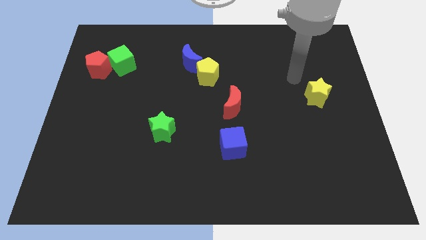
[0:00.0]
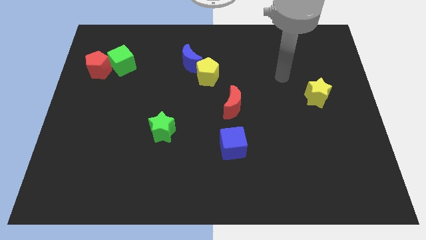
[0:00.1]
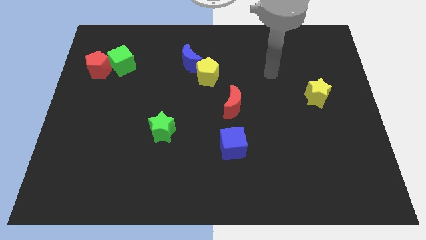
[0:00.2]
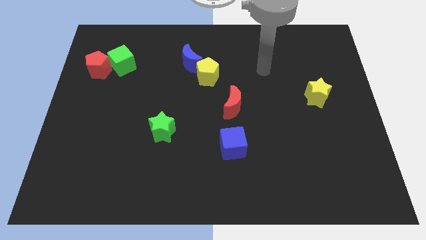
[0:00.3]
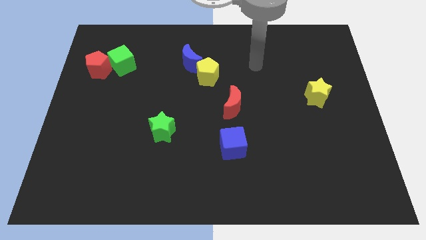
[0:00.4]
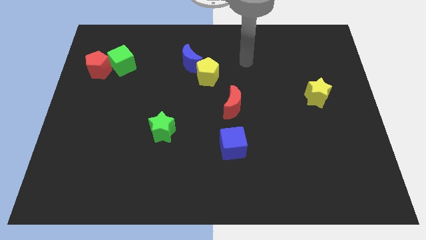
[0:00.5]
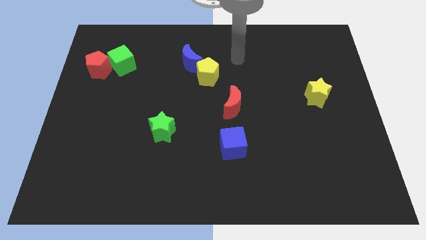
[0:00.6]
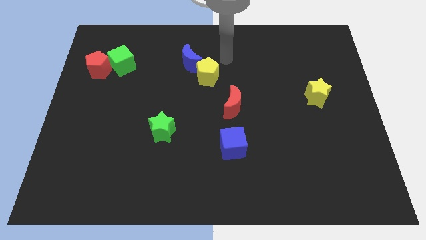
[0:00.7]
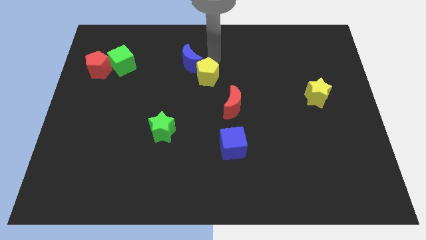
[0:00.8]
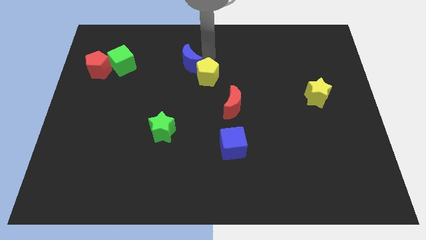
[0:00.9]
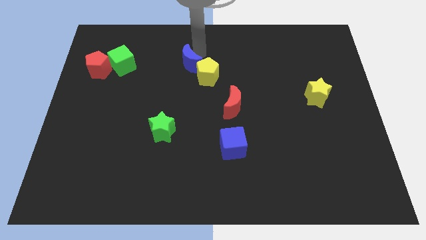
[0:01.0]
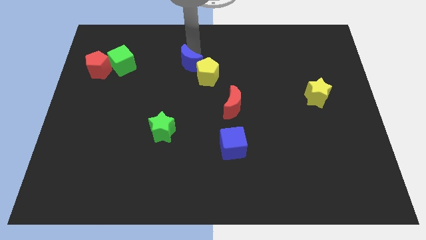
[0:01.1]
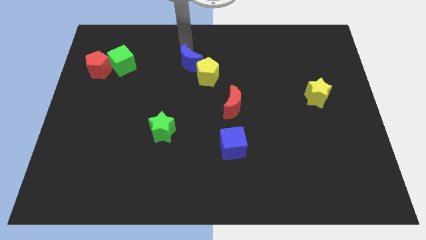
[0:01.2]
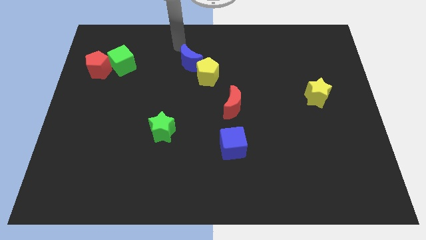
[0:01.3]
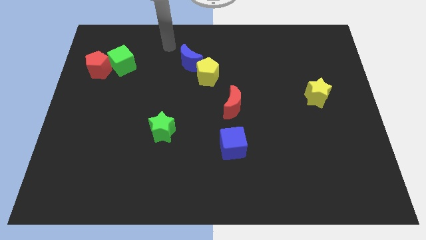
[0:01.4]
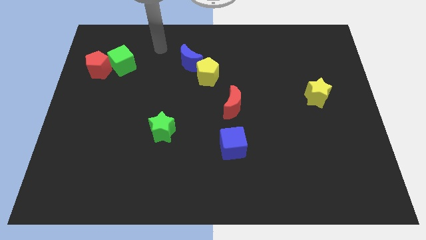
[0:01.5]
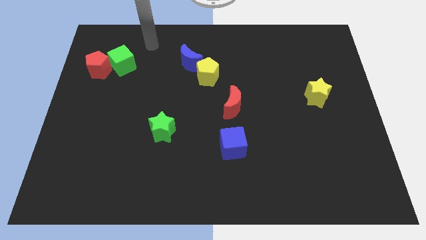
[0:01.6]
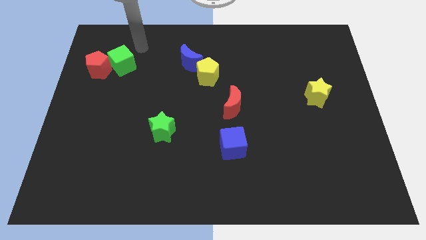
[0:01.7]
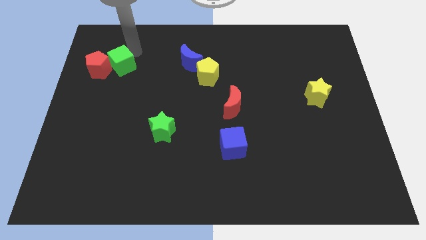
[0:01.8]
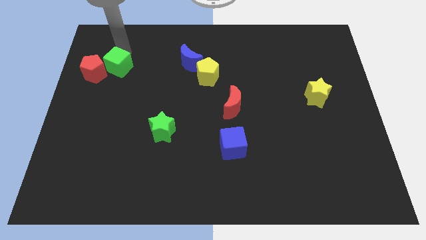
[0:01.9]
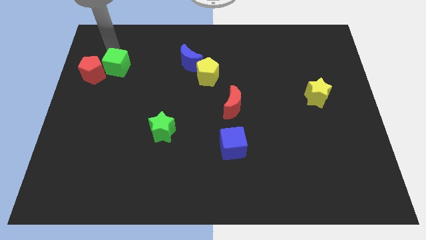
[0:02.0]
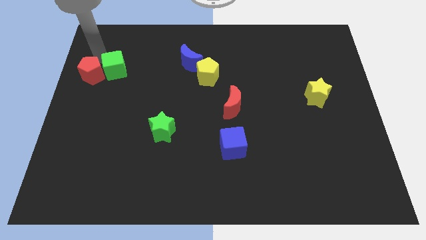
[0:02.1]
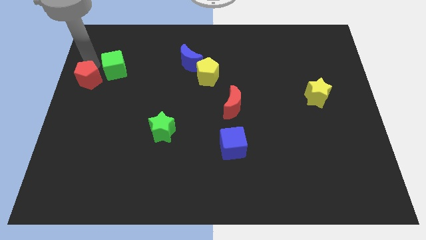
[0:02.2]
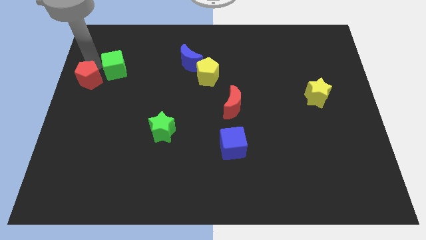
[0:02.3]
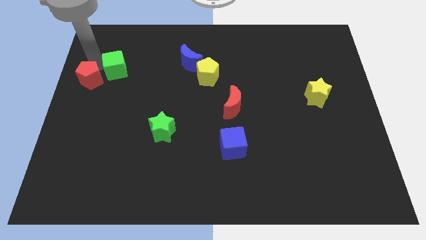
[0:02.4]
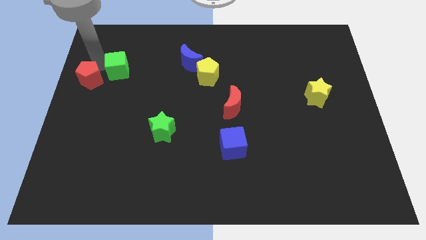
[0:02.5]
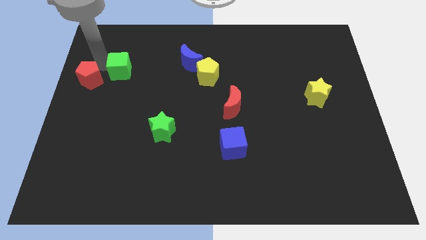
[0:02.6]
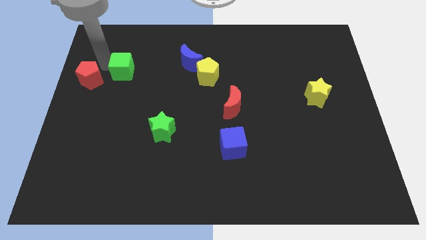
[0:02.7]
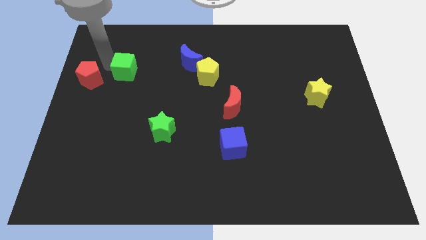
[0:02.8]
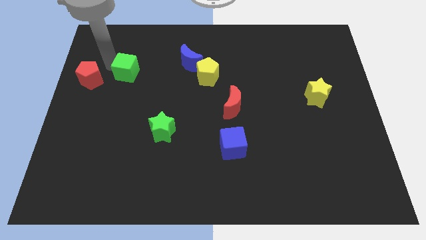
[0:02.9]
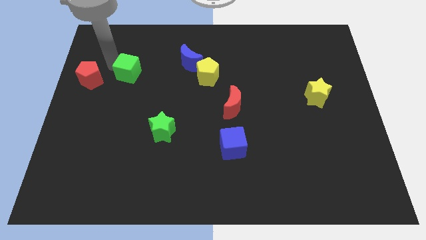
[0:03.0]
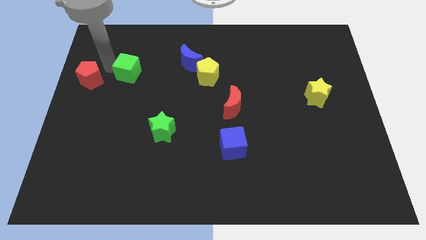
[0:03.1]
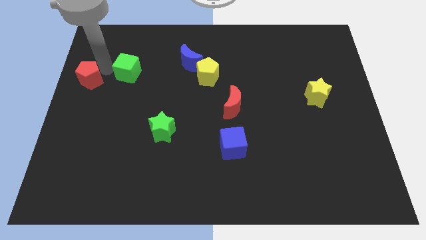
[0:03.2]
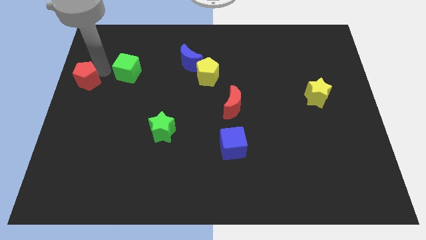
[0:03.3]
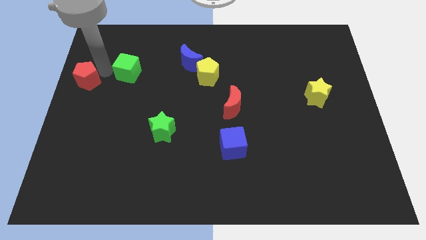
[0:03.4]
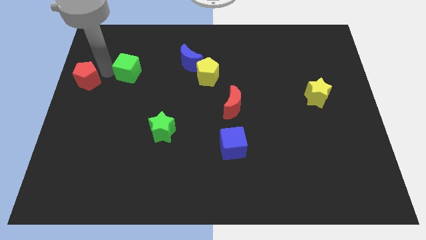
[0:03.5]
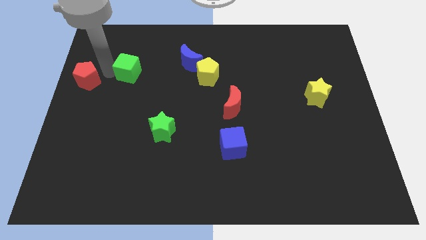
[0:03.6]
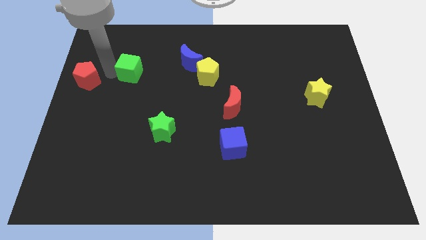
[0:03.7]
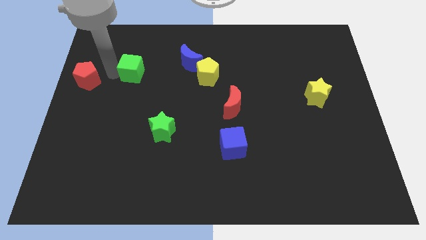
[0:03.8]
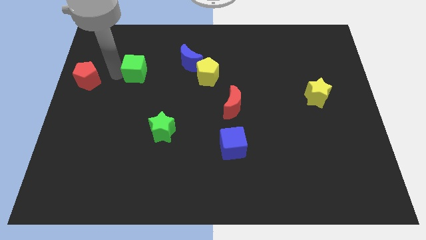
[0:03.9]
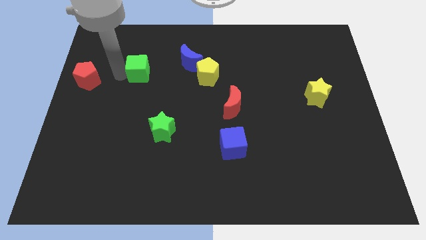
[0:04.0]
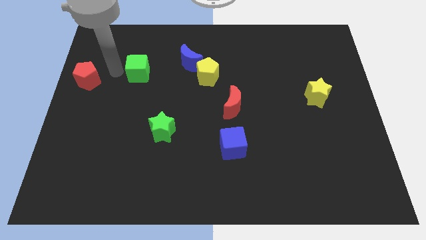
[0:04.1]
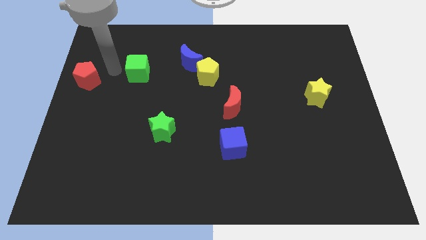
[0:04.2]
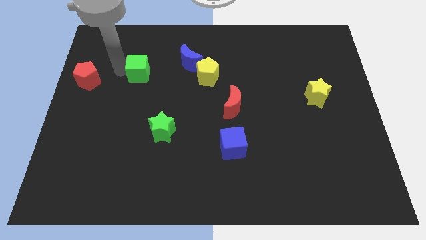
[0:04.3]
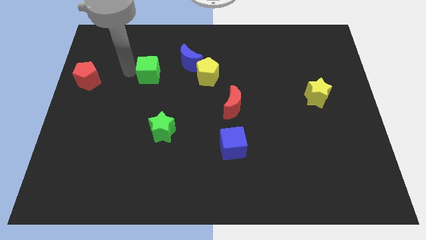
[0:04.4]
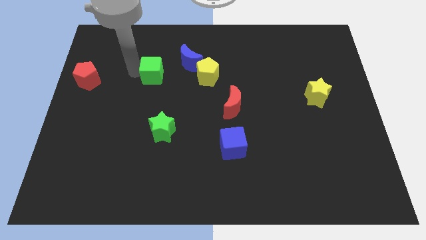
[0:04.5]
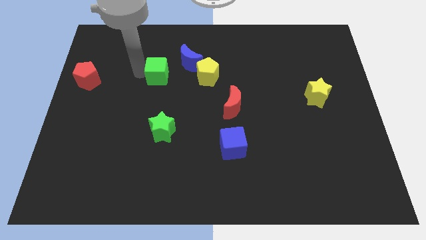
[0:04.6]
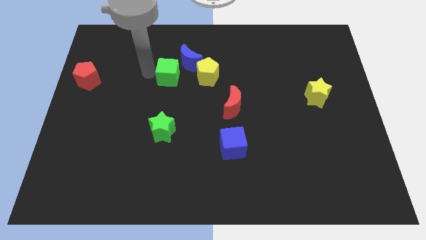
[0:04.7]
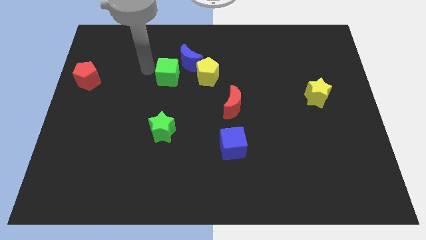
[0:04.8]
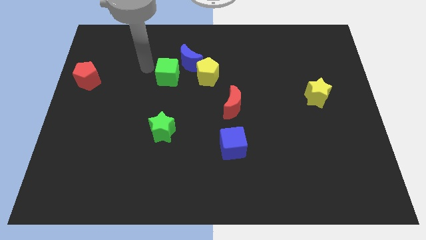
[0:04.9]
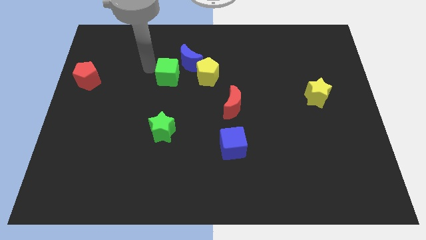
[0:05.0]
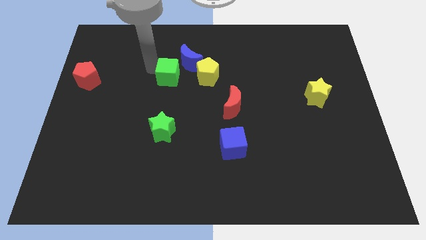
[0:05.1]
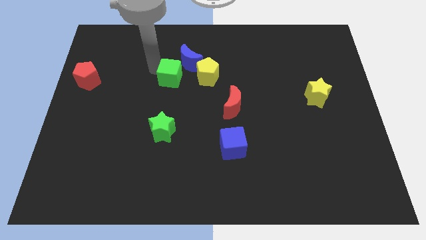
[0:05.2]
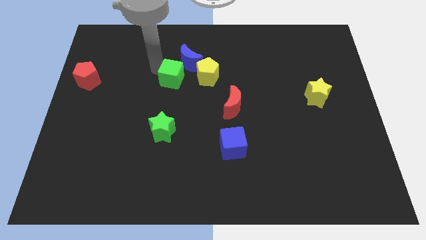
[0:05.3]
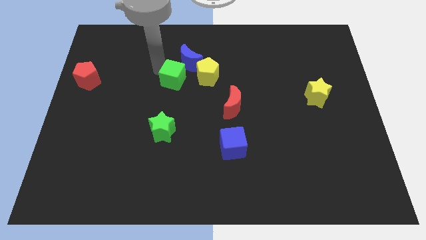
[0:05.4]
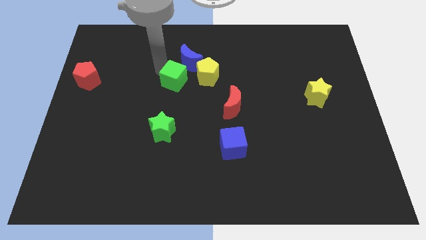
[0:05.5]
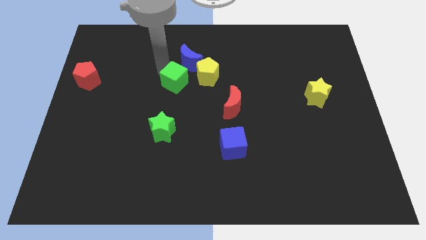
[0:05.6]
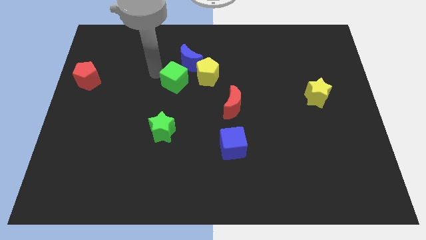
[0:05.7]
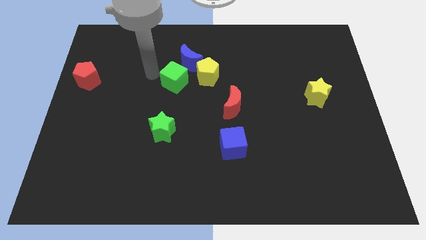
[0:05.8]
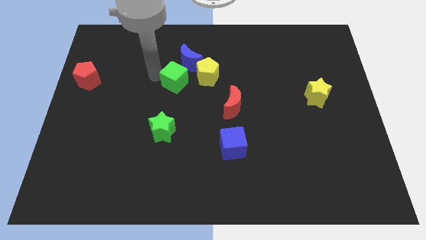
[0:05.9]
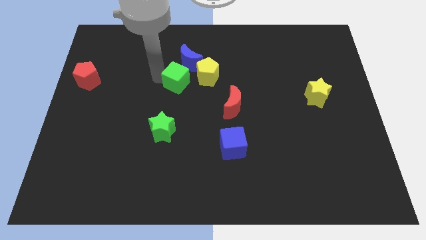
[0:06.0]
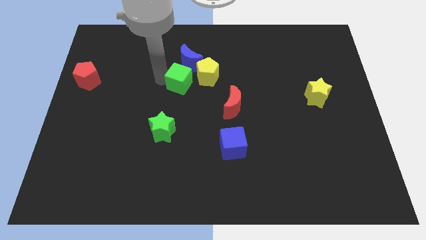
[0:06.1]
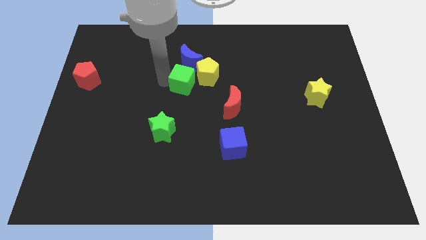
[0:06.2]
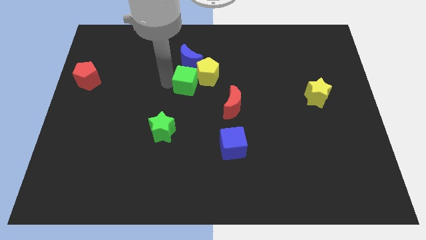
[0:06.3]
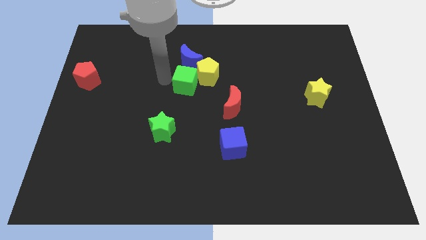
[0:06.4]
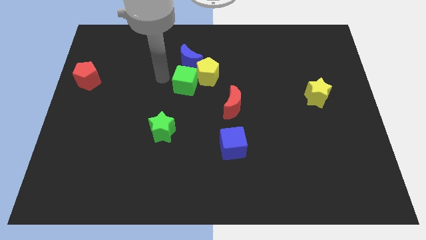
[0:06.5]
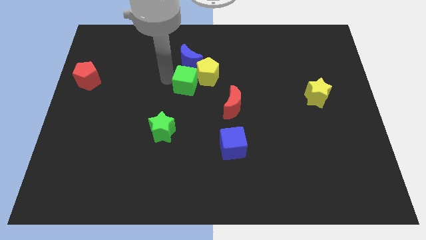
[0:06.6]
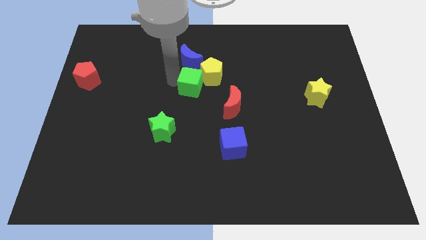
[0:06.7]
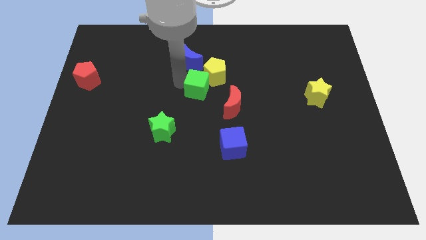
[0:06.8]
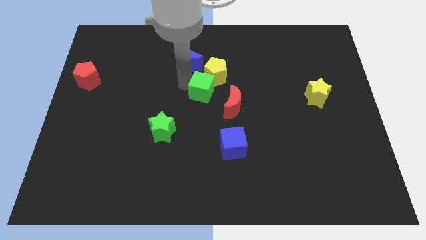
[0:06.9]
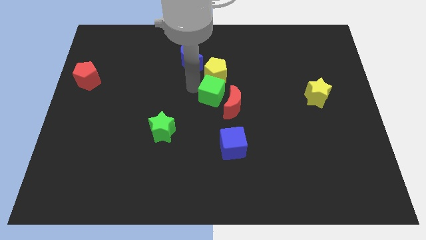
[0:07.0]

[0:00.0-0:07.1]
push the green cube close to the red moon
